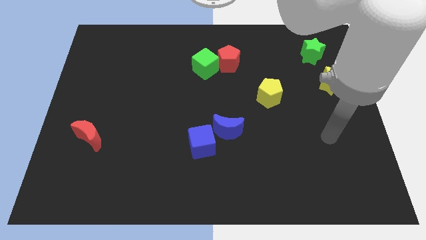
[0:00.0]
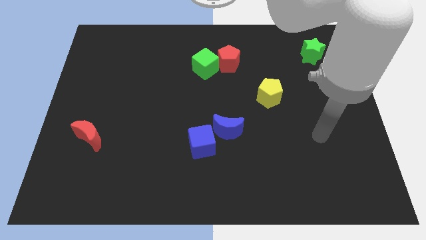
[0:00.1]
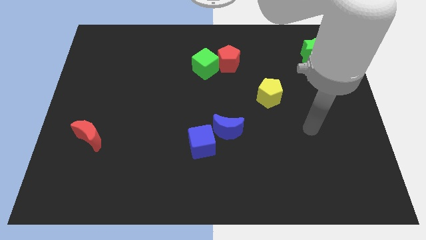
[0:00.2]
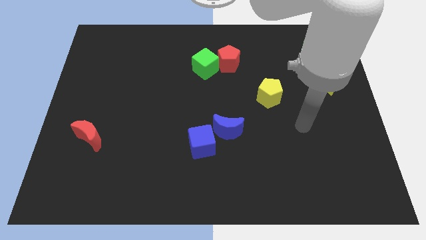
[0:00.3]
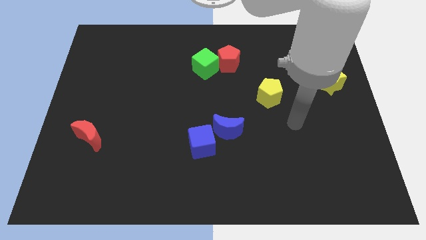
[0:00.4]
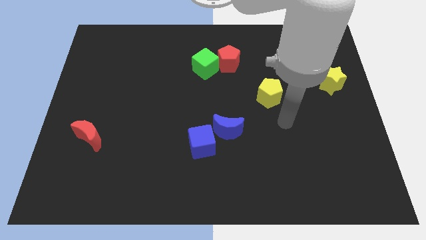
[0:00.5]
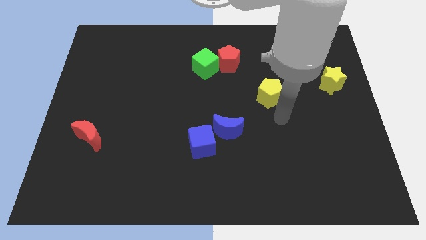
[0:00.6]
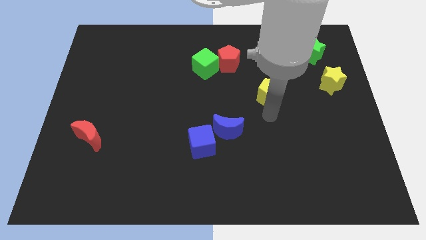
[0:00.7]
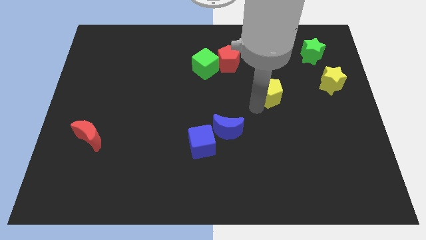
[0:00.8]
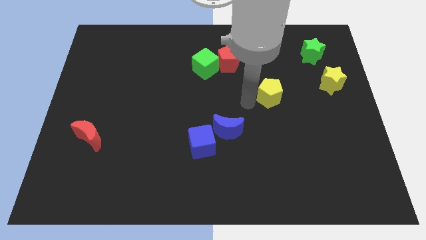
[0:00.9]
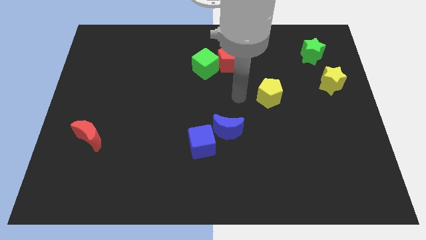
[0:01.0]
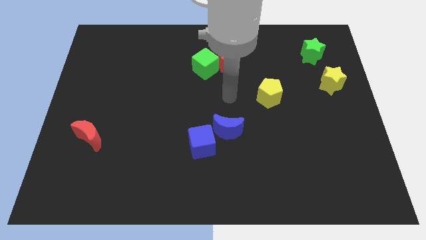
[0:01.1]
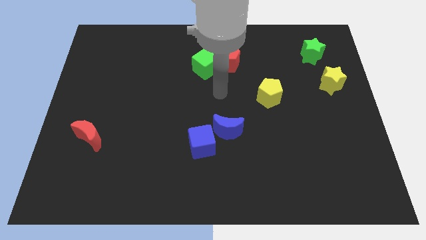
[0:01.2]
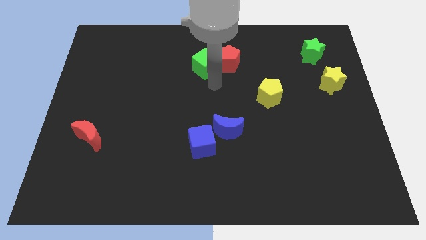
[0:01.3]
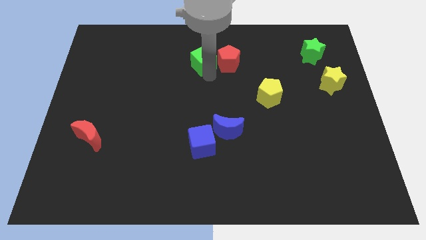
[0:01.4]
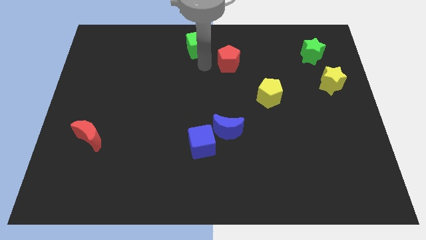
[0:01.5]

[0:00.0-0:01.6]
pull the red pentagon apart from the green cube

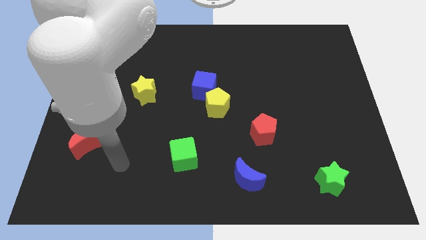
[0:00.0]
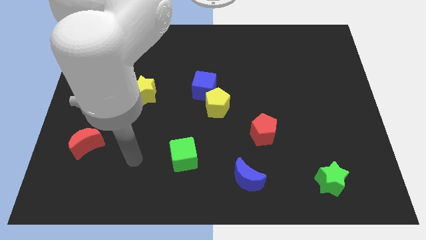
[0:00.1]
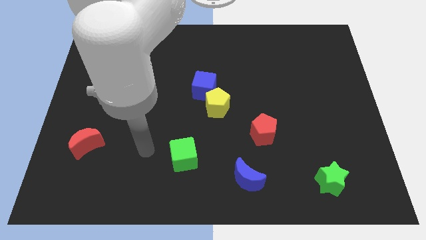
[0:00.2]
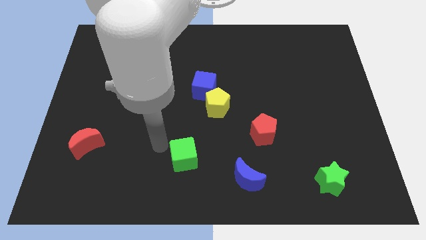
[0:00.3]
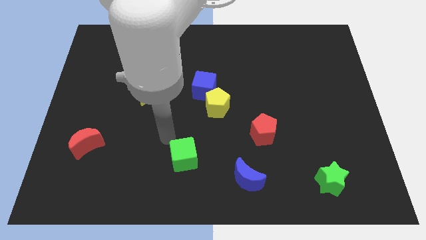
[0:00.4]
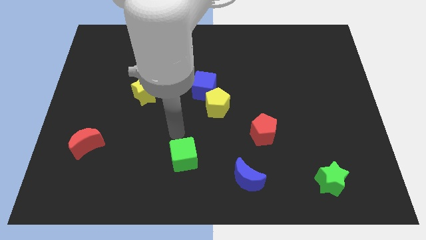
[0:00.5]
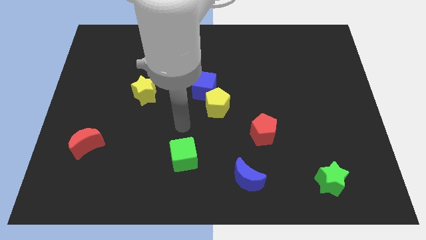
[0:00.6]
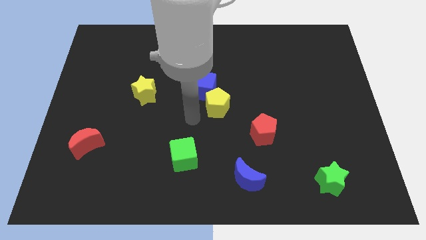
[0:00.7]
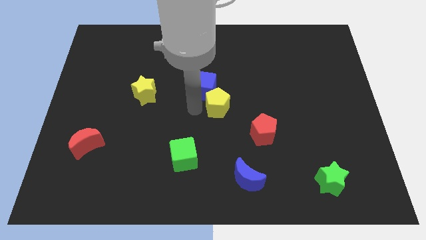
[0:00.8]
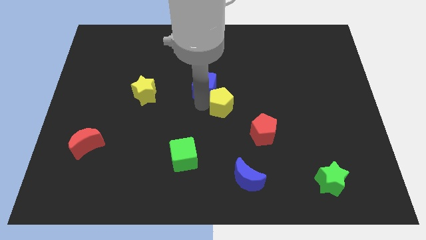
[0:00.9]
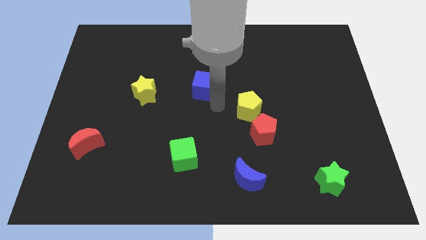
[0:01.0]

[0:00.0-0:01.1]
move the blue cube away from the yellow pentagon

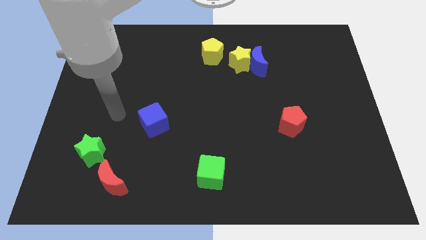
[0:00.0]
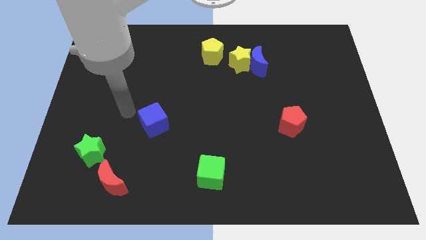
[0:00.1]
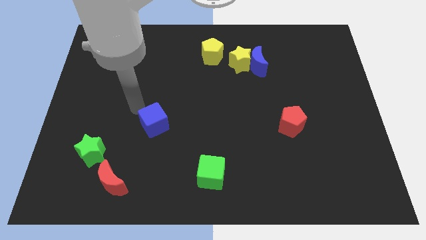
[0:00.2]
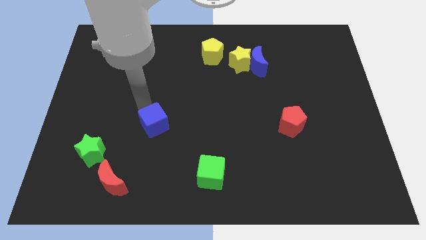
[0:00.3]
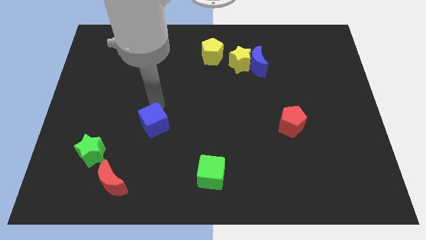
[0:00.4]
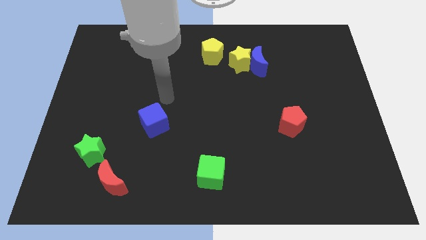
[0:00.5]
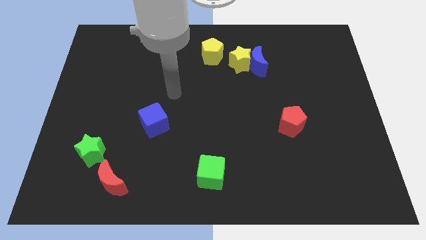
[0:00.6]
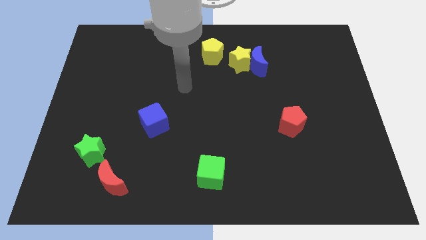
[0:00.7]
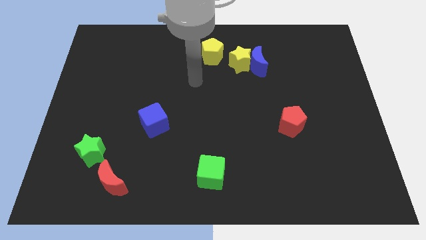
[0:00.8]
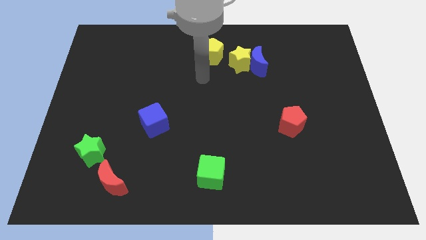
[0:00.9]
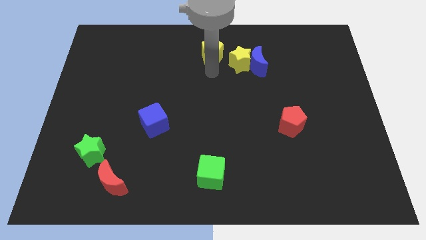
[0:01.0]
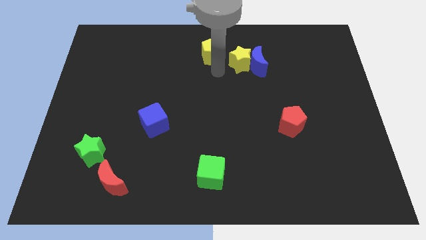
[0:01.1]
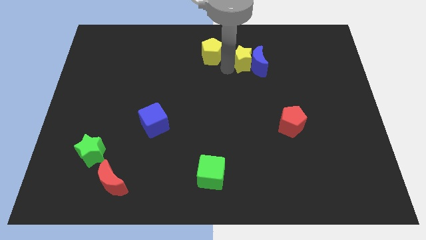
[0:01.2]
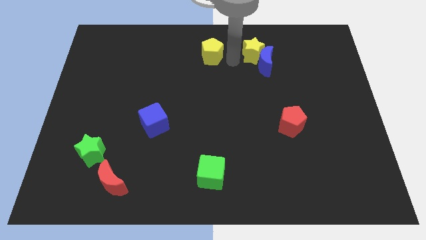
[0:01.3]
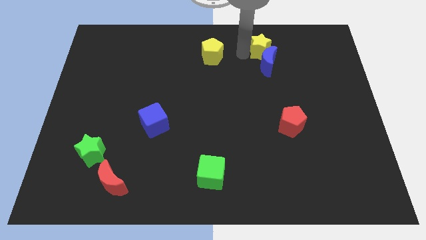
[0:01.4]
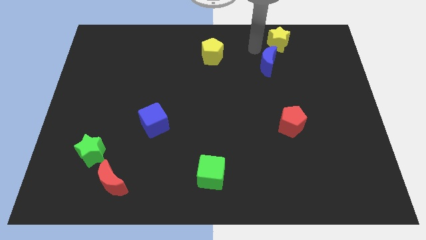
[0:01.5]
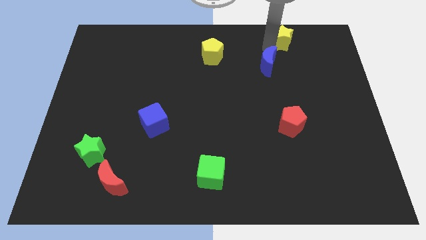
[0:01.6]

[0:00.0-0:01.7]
move the blue moon away from the yellow star

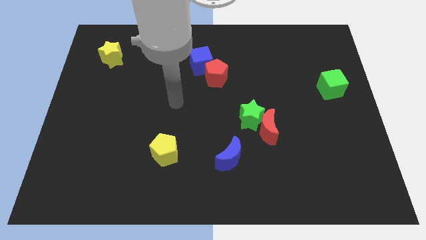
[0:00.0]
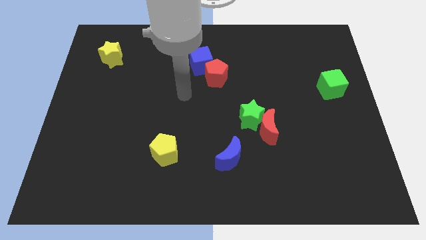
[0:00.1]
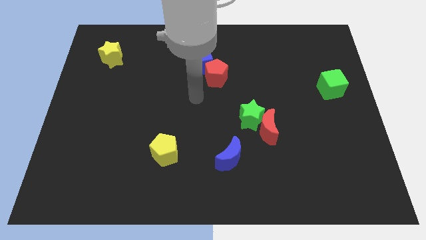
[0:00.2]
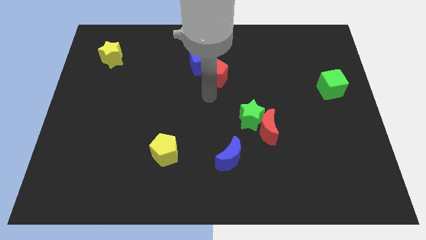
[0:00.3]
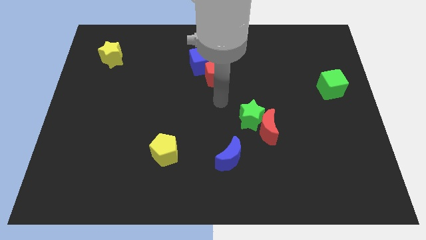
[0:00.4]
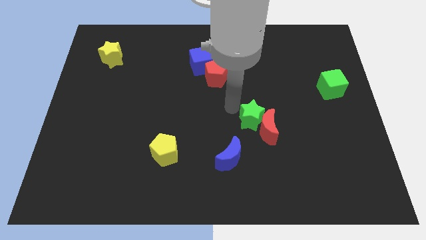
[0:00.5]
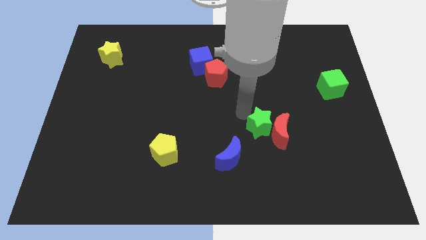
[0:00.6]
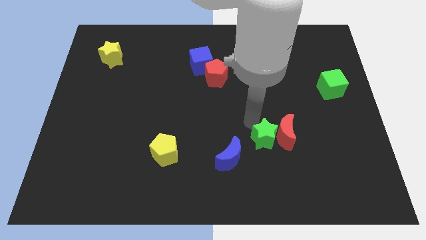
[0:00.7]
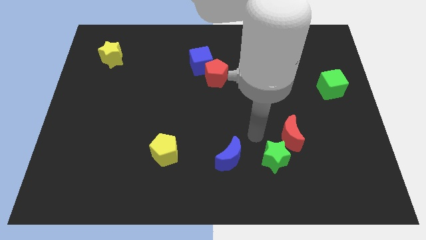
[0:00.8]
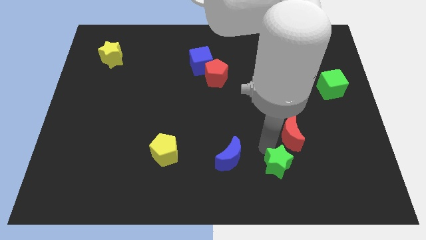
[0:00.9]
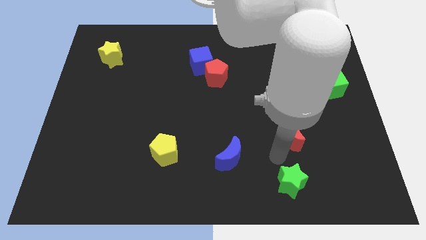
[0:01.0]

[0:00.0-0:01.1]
move the red moon away from the green star

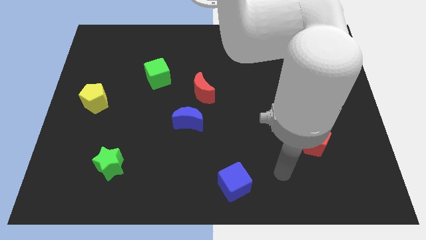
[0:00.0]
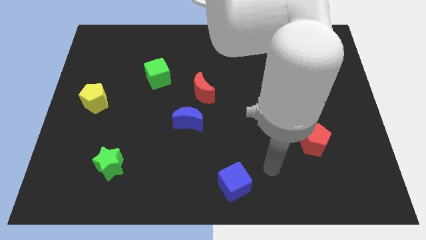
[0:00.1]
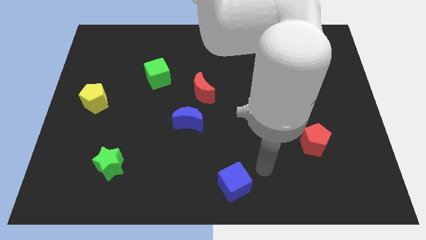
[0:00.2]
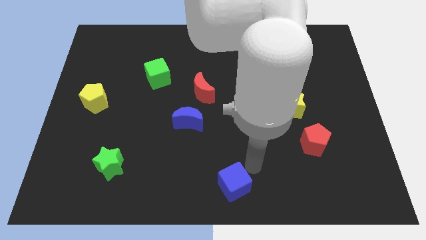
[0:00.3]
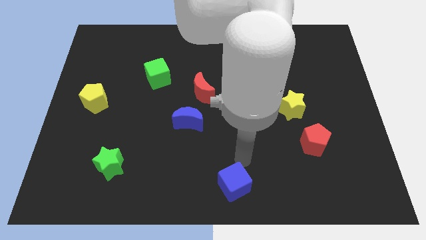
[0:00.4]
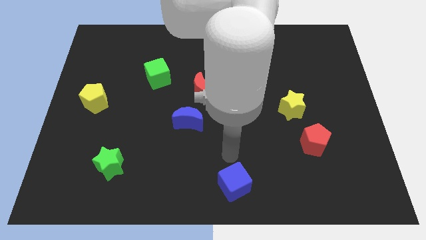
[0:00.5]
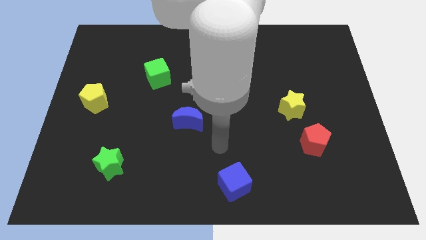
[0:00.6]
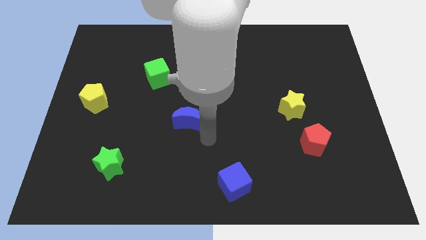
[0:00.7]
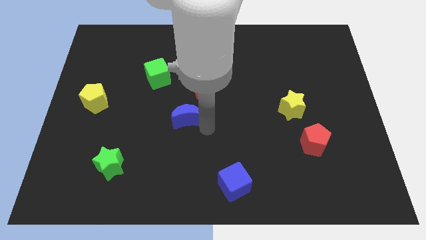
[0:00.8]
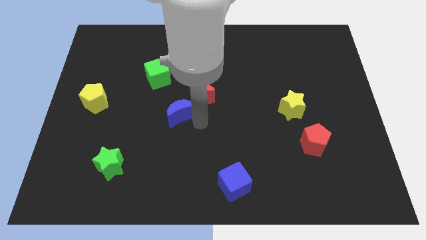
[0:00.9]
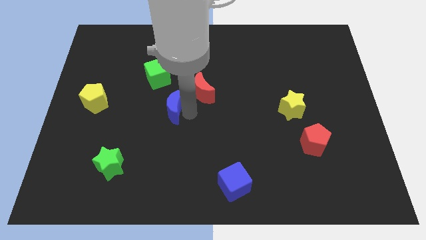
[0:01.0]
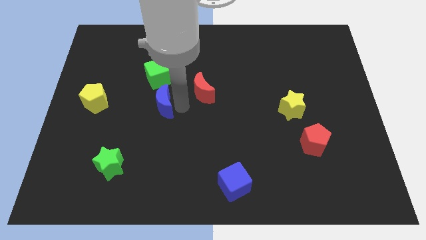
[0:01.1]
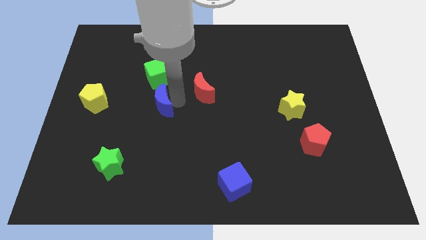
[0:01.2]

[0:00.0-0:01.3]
pull the red moon apart from the blue moon

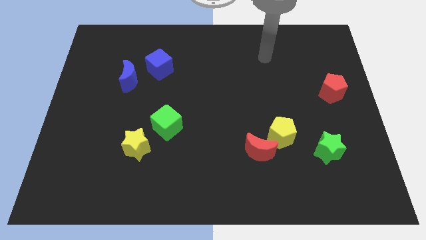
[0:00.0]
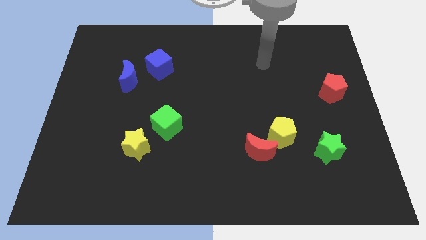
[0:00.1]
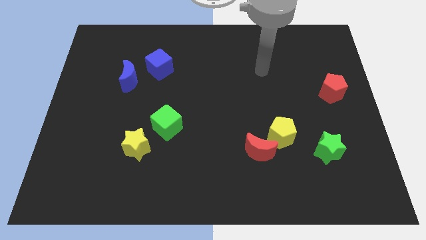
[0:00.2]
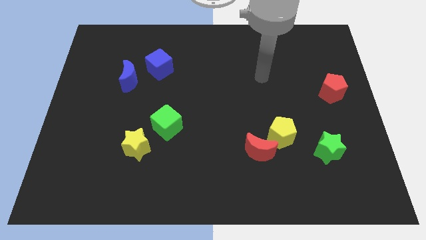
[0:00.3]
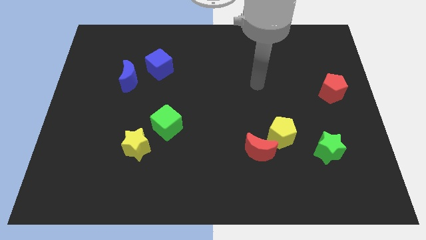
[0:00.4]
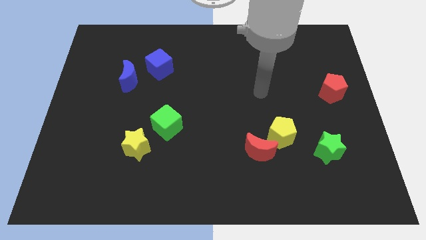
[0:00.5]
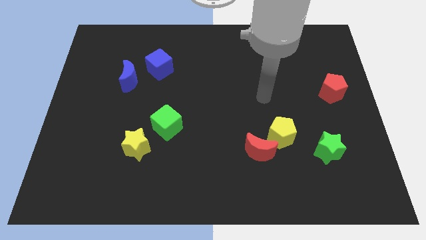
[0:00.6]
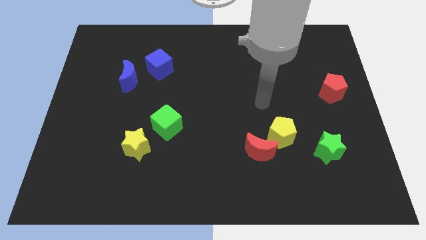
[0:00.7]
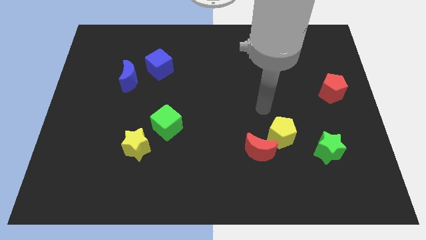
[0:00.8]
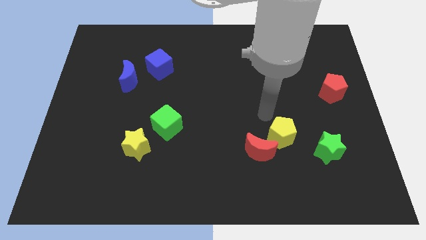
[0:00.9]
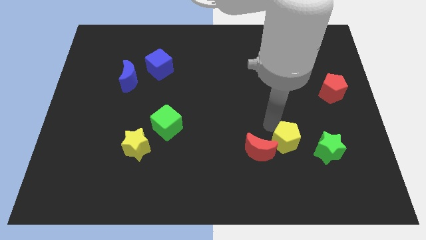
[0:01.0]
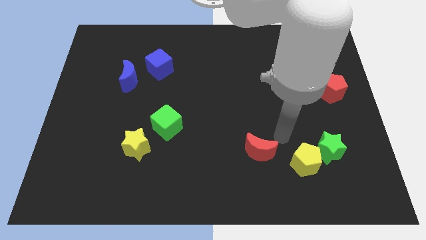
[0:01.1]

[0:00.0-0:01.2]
move the red moon away from the yellow pentagon

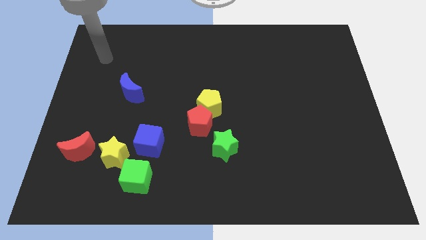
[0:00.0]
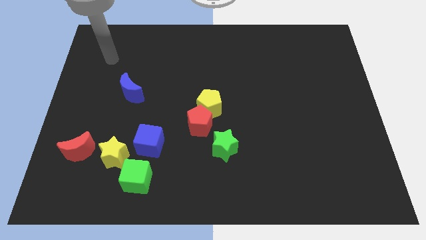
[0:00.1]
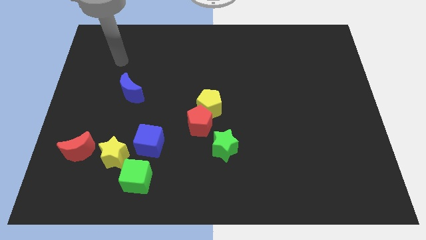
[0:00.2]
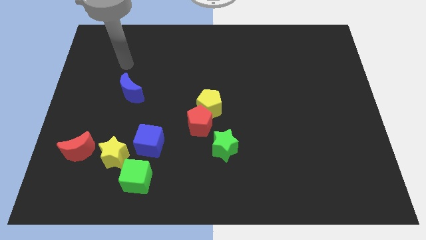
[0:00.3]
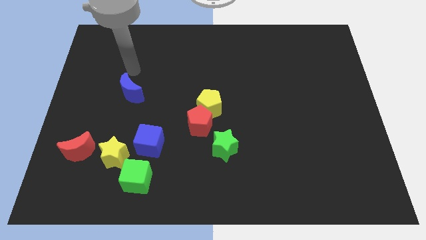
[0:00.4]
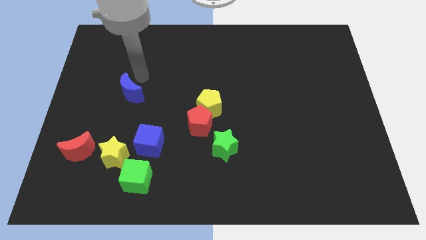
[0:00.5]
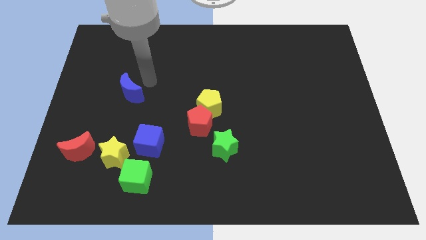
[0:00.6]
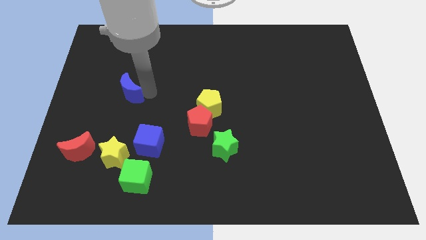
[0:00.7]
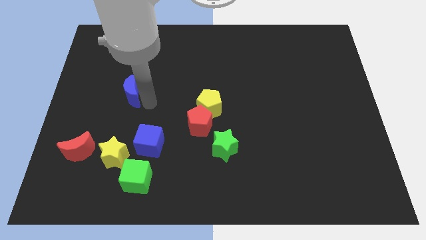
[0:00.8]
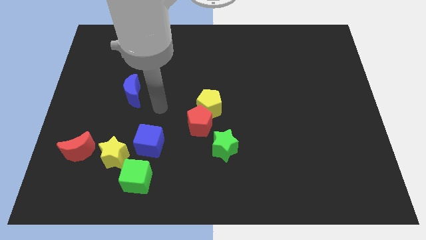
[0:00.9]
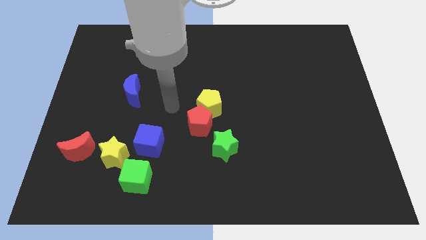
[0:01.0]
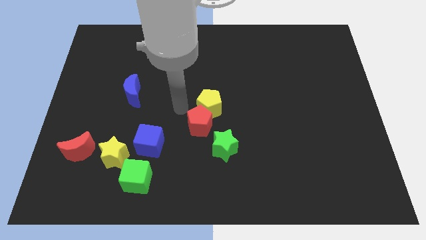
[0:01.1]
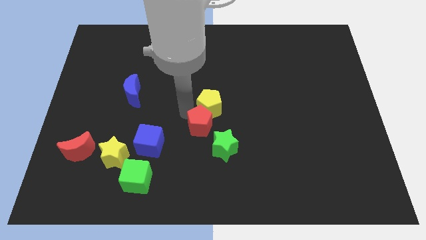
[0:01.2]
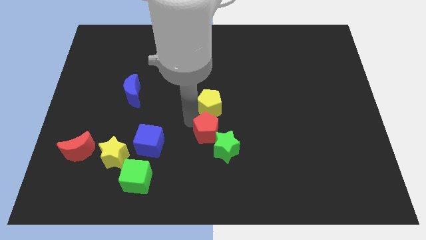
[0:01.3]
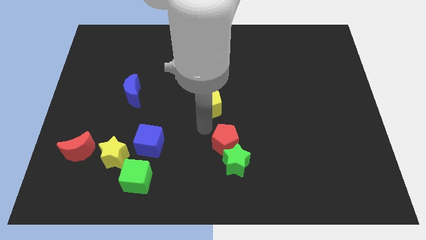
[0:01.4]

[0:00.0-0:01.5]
pull the yellow pentagon apart from the red pentagon

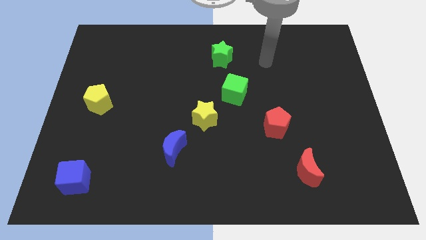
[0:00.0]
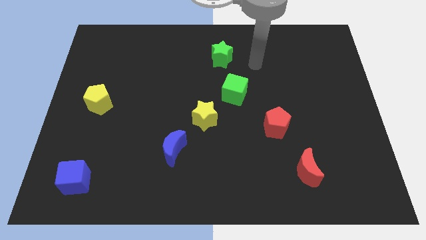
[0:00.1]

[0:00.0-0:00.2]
move the green cube away from the yellow star
